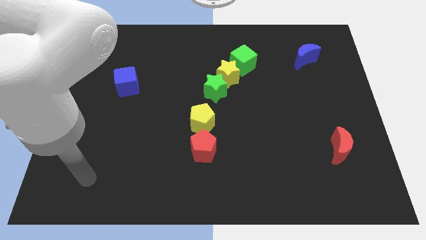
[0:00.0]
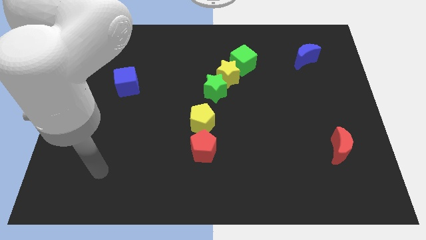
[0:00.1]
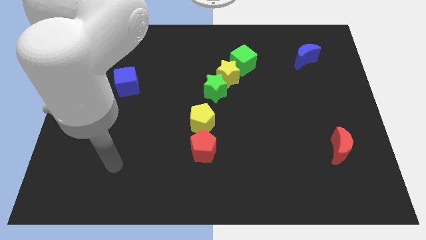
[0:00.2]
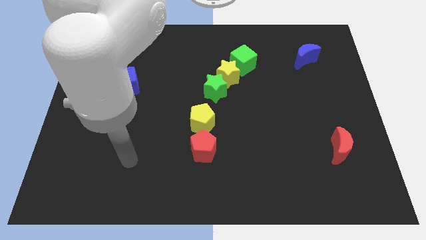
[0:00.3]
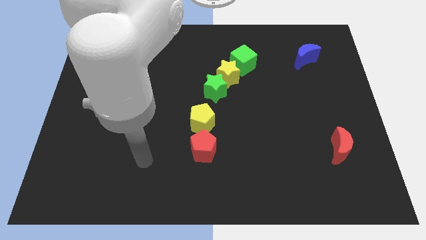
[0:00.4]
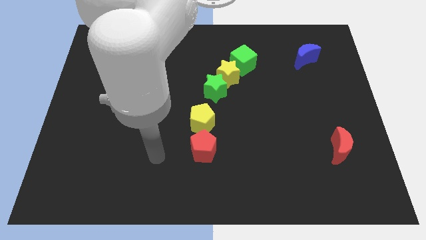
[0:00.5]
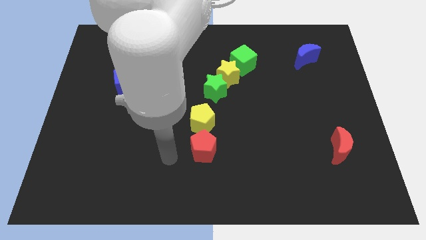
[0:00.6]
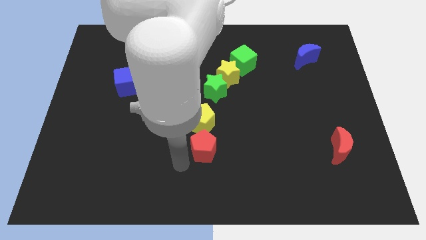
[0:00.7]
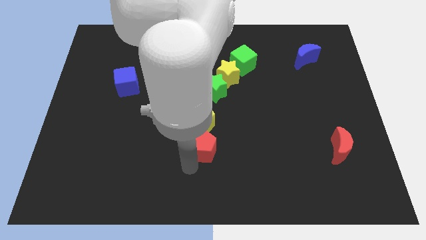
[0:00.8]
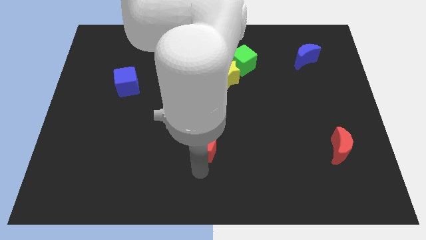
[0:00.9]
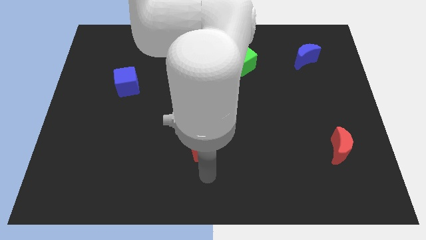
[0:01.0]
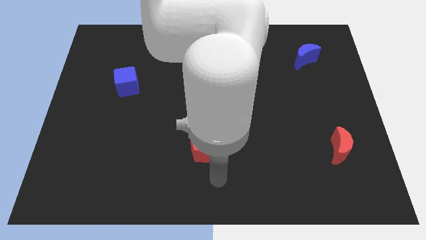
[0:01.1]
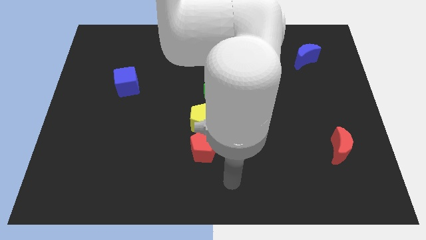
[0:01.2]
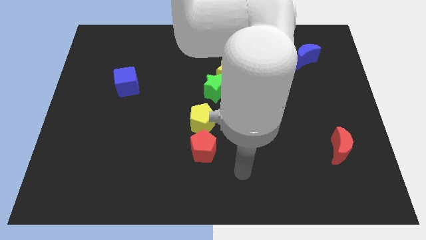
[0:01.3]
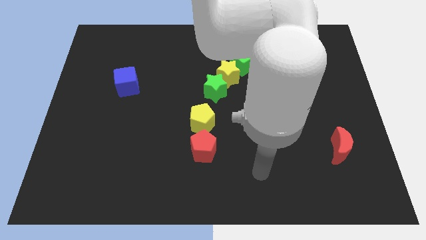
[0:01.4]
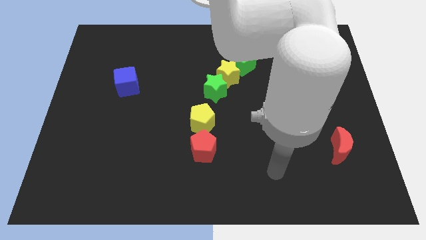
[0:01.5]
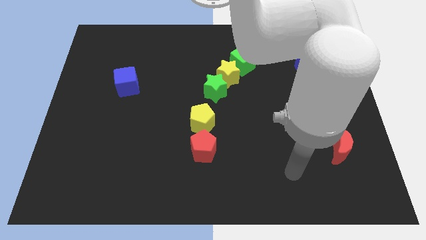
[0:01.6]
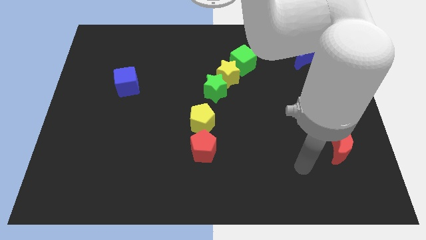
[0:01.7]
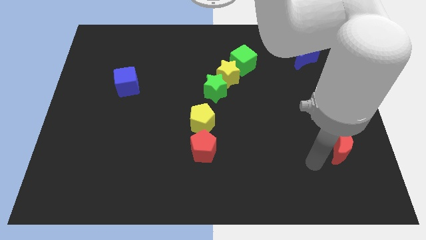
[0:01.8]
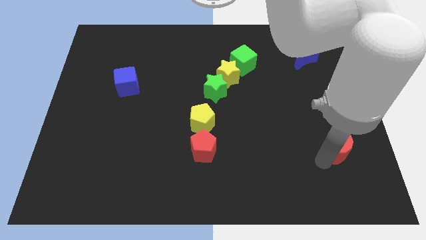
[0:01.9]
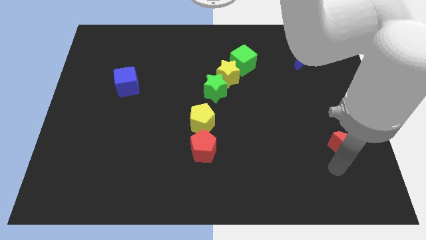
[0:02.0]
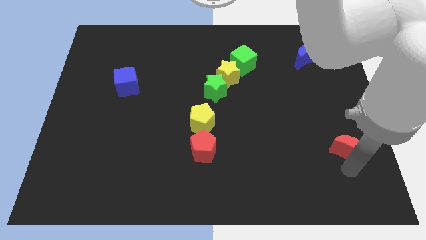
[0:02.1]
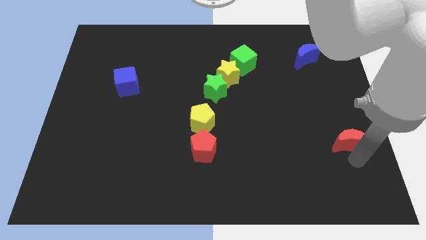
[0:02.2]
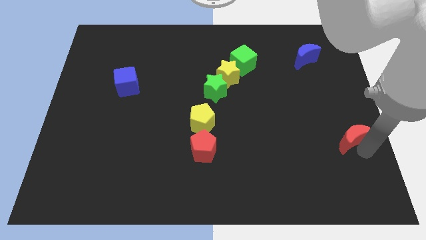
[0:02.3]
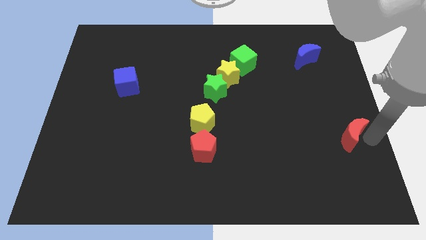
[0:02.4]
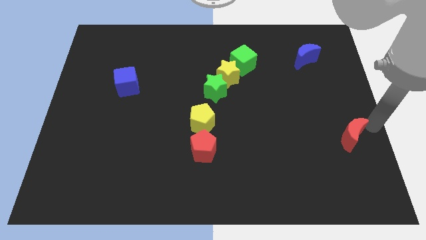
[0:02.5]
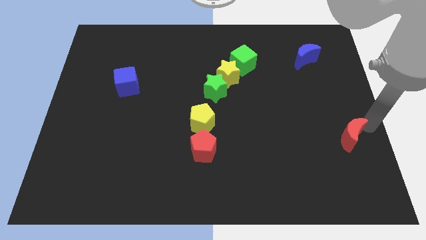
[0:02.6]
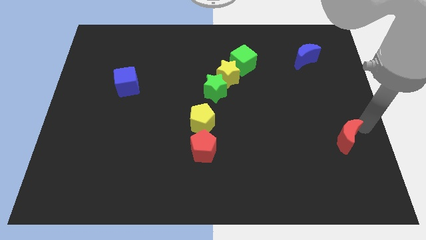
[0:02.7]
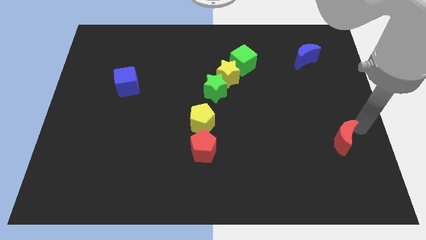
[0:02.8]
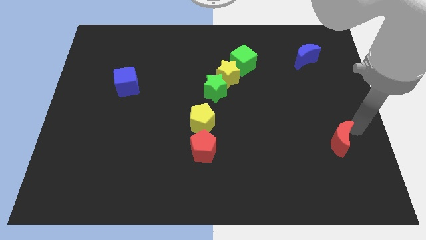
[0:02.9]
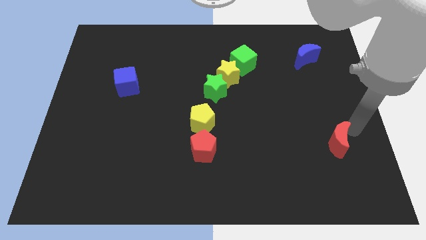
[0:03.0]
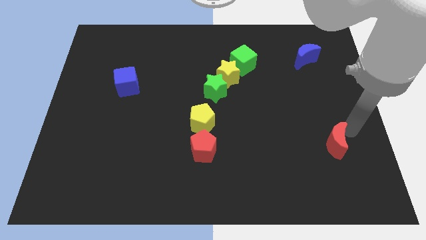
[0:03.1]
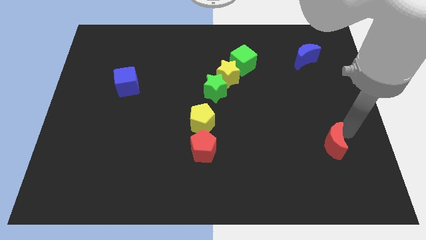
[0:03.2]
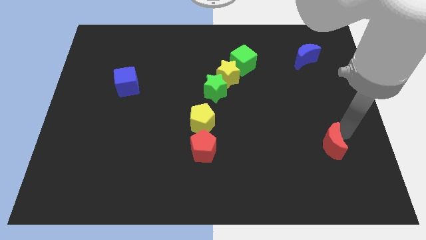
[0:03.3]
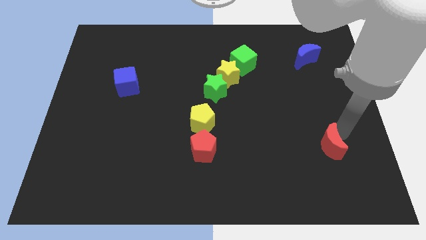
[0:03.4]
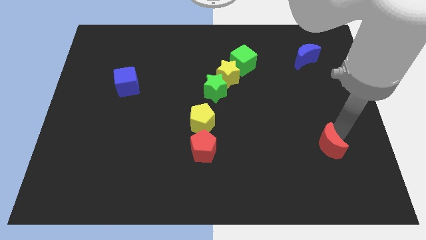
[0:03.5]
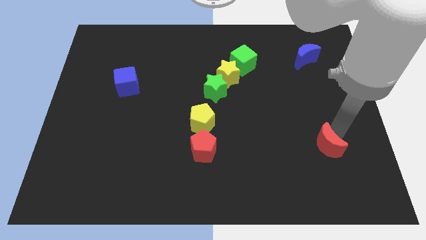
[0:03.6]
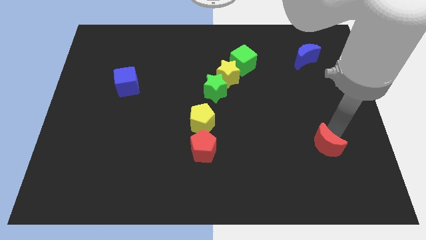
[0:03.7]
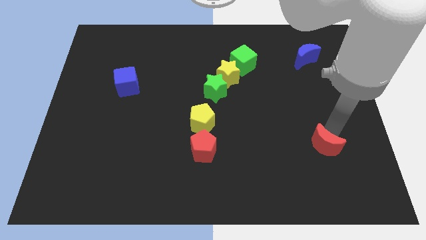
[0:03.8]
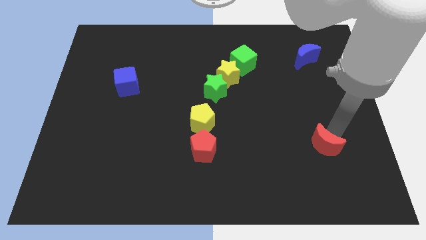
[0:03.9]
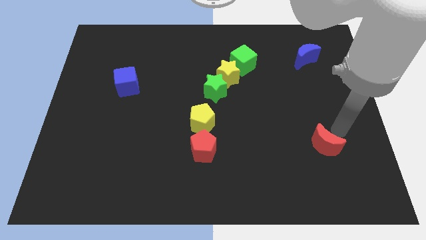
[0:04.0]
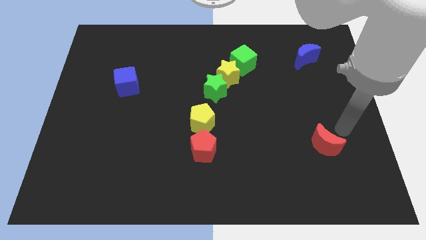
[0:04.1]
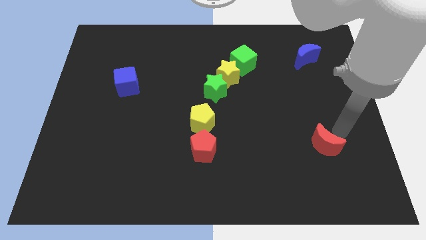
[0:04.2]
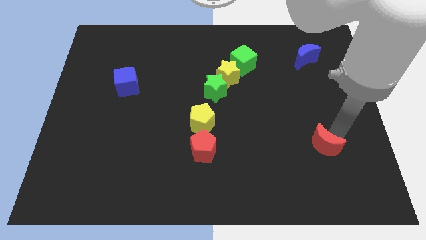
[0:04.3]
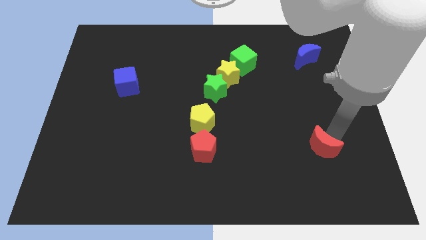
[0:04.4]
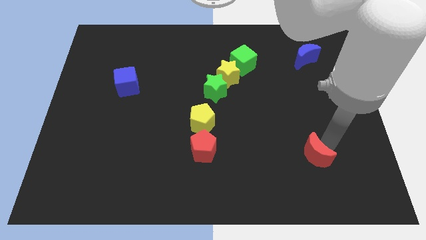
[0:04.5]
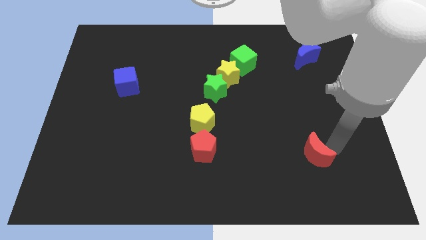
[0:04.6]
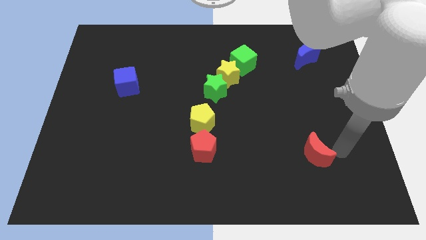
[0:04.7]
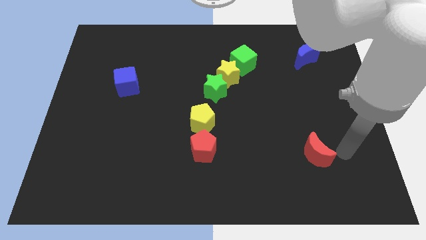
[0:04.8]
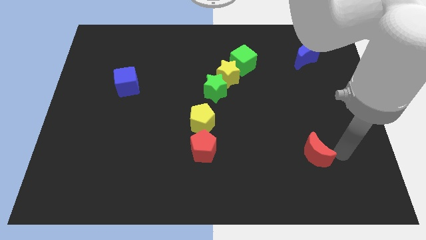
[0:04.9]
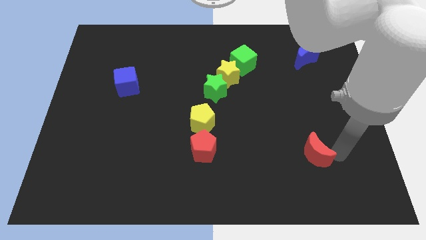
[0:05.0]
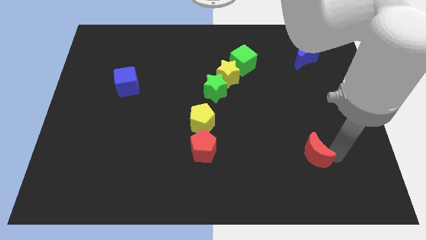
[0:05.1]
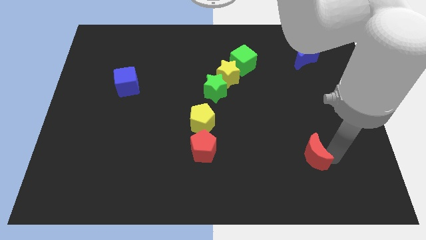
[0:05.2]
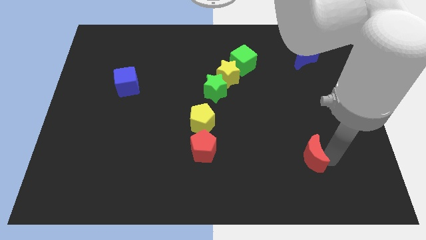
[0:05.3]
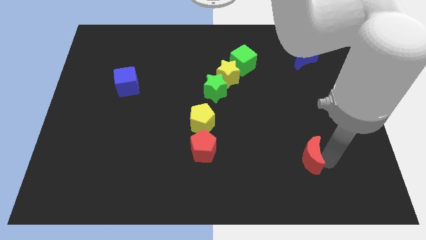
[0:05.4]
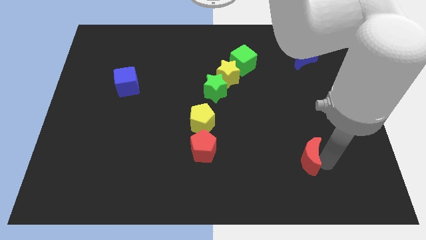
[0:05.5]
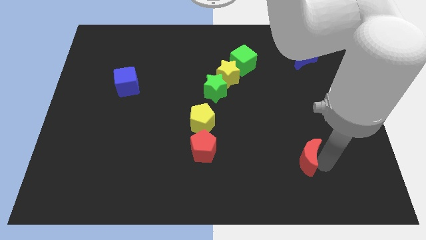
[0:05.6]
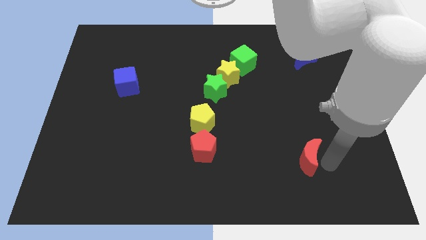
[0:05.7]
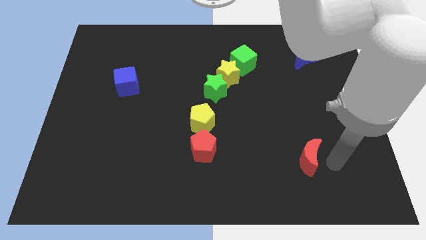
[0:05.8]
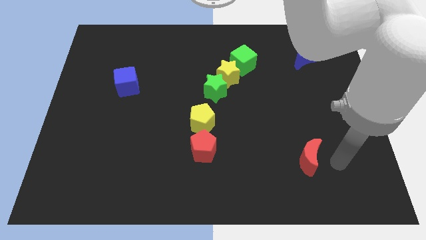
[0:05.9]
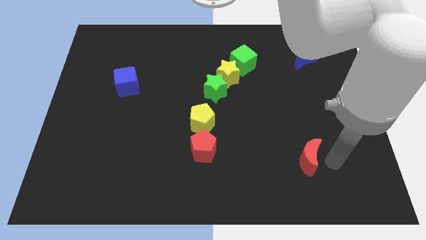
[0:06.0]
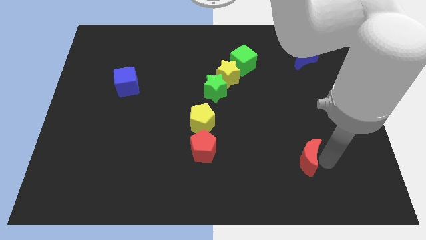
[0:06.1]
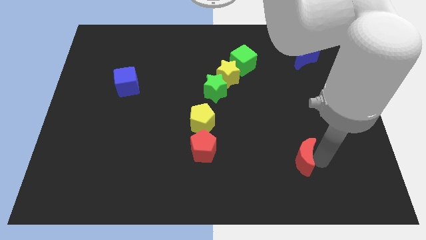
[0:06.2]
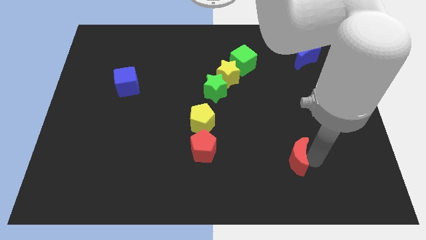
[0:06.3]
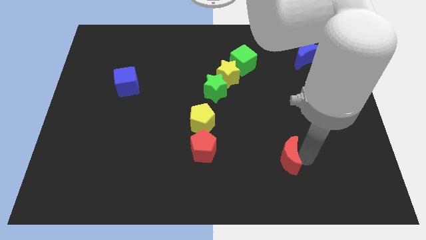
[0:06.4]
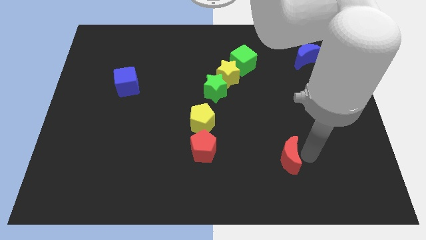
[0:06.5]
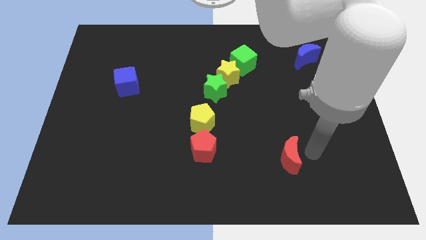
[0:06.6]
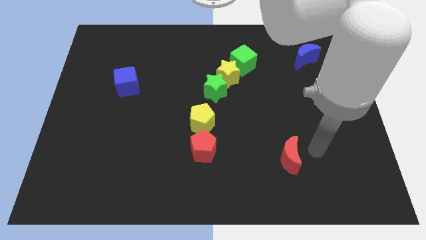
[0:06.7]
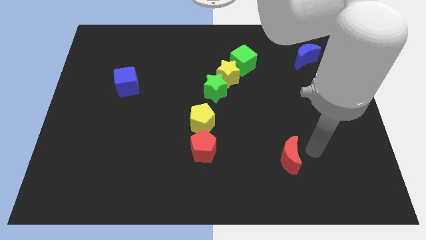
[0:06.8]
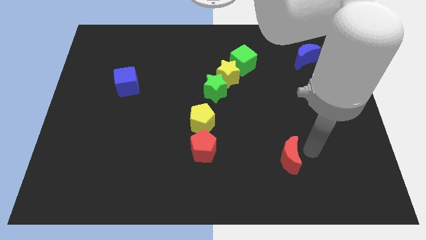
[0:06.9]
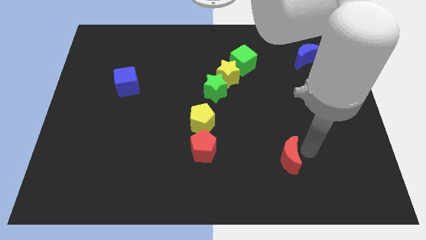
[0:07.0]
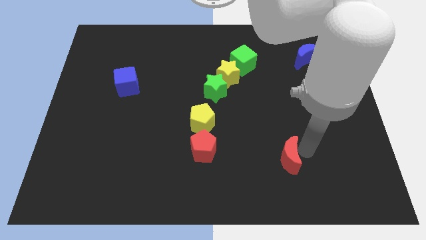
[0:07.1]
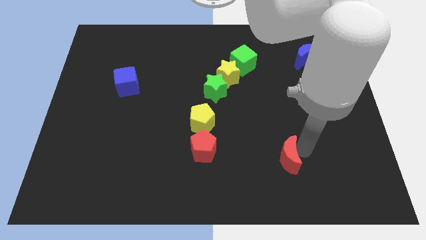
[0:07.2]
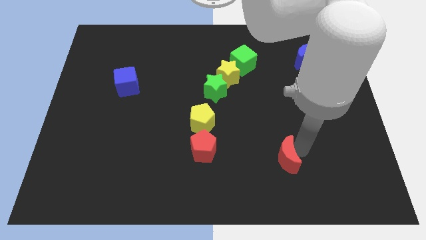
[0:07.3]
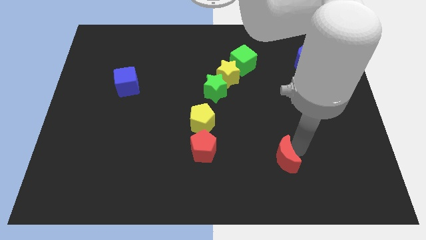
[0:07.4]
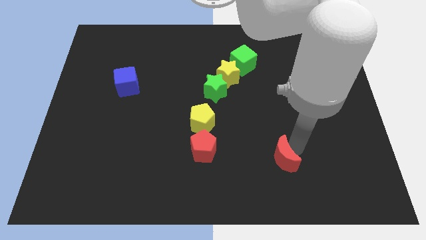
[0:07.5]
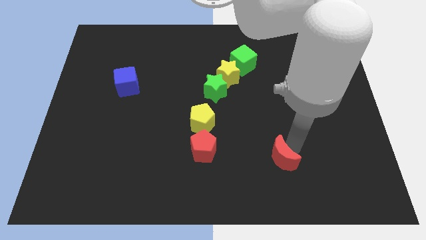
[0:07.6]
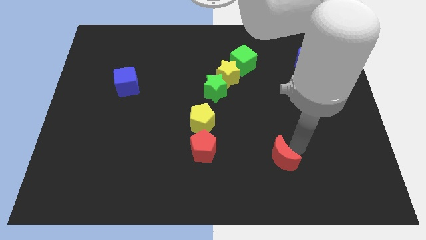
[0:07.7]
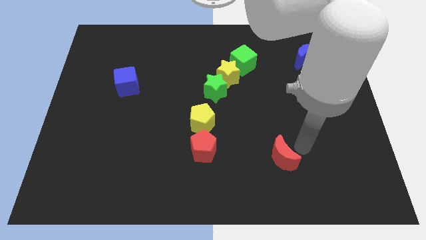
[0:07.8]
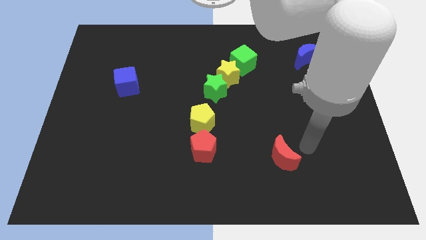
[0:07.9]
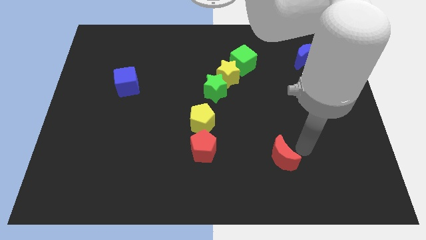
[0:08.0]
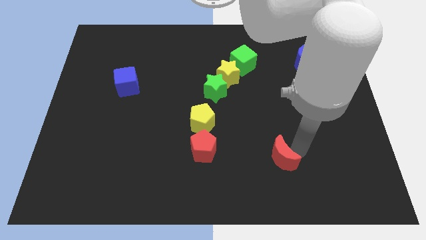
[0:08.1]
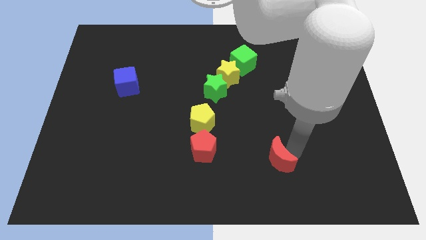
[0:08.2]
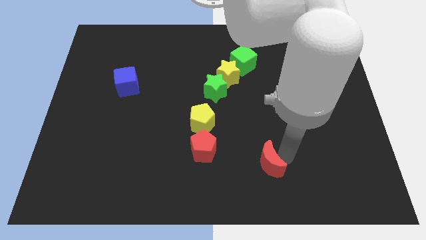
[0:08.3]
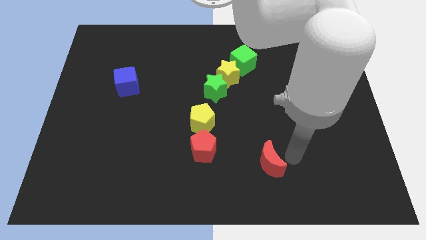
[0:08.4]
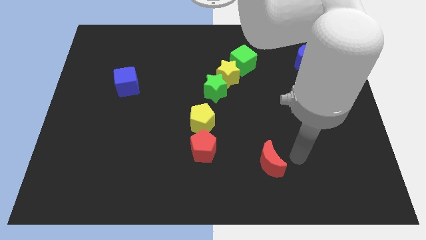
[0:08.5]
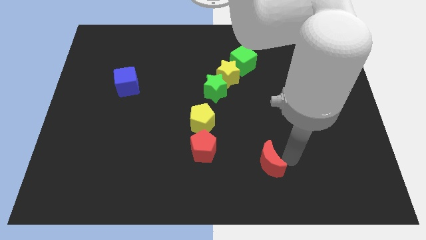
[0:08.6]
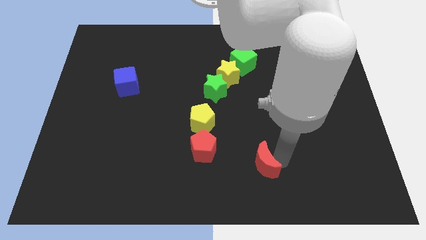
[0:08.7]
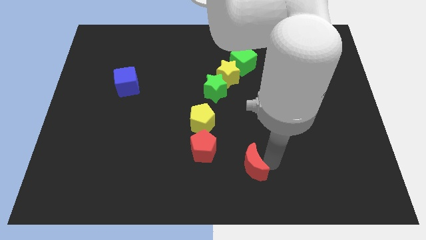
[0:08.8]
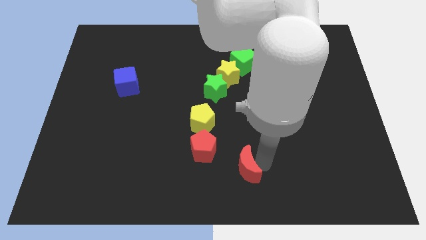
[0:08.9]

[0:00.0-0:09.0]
move the red moon to the bottom right of the red pentagon
